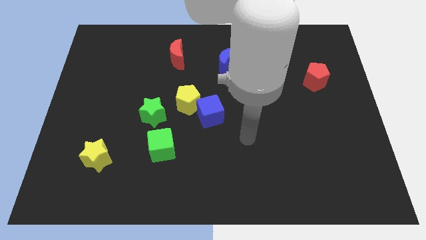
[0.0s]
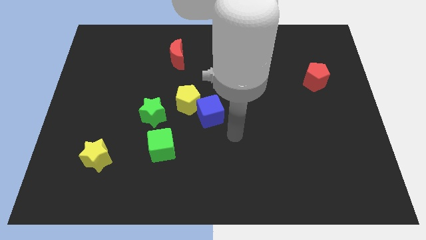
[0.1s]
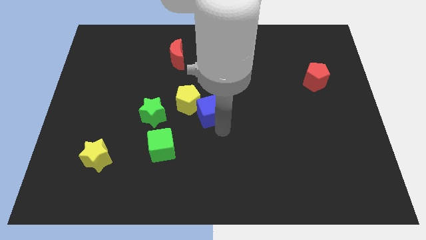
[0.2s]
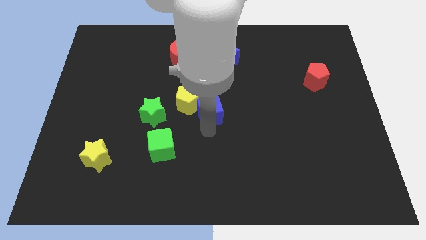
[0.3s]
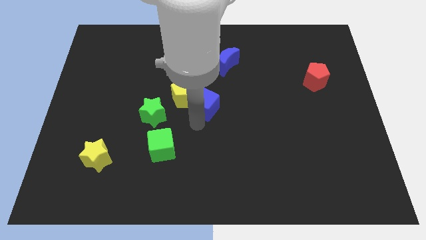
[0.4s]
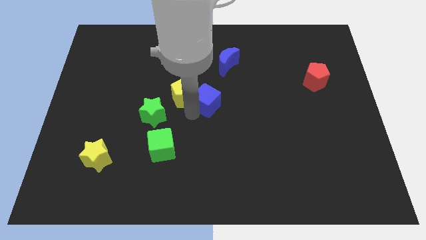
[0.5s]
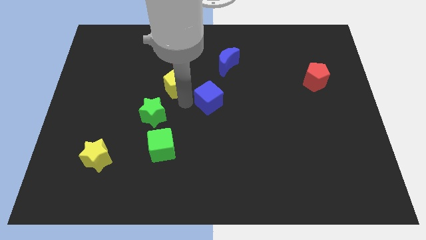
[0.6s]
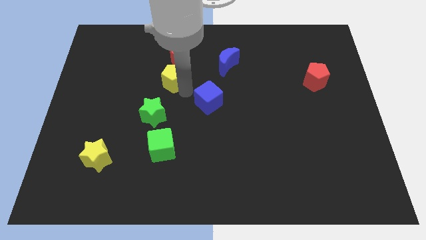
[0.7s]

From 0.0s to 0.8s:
pull the blue cube apart from the yellow pentagon

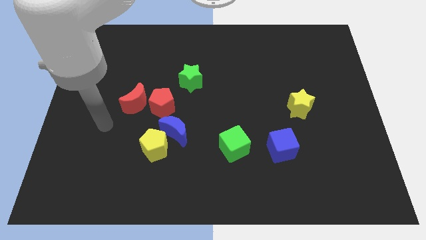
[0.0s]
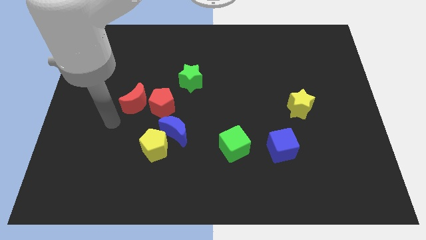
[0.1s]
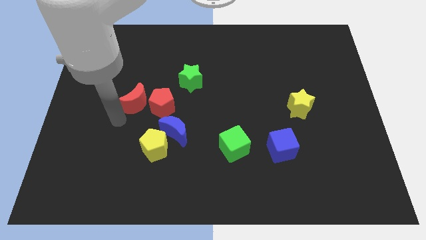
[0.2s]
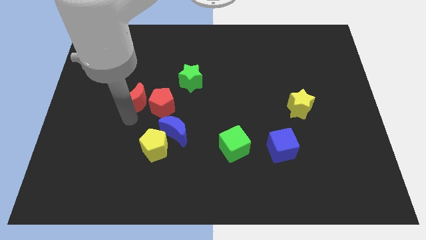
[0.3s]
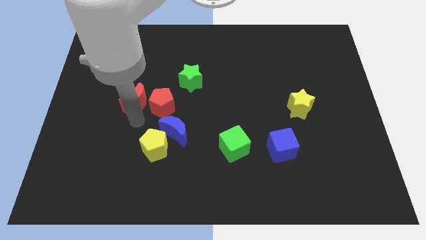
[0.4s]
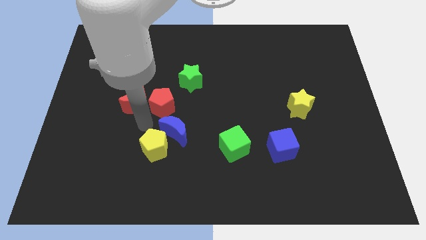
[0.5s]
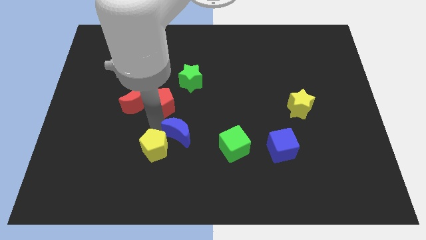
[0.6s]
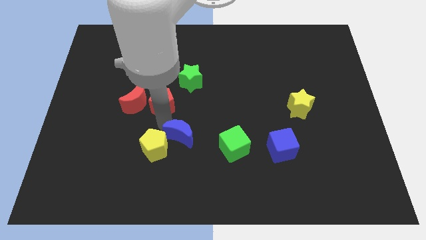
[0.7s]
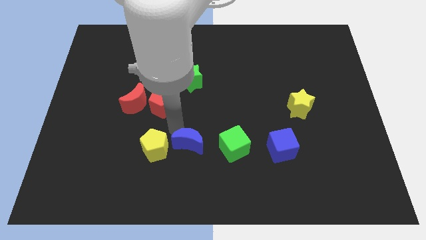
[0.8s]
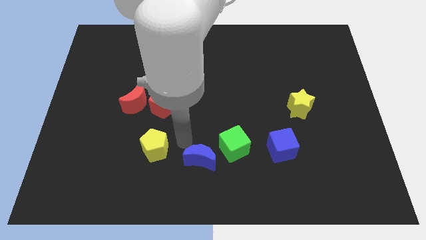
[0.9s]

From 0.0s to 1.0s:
separate the yellow pentagon from the blue moon

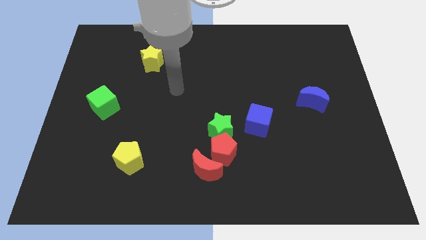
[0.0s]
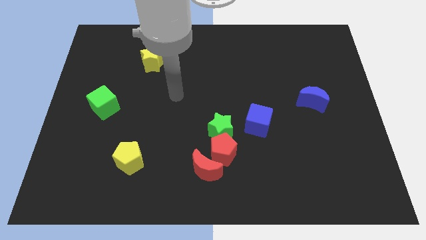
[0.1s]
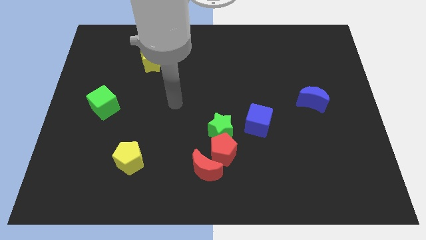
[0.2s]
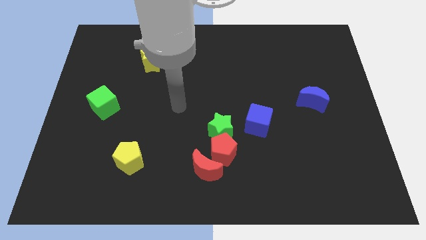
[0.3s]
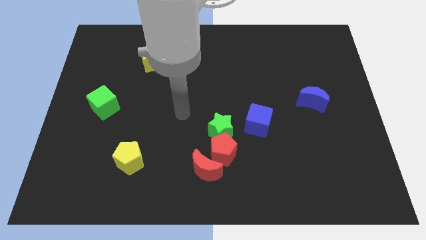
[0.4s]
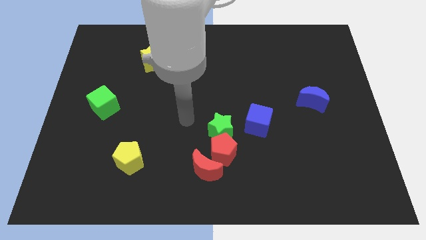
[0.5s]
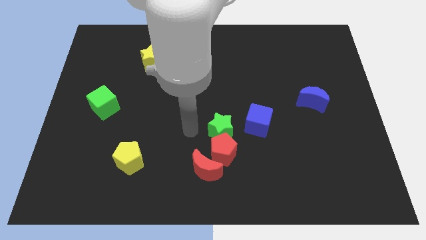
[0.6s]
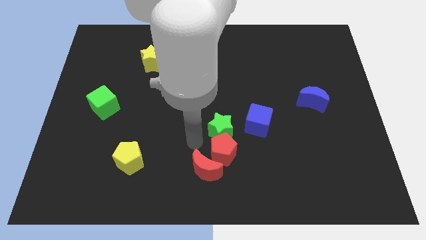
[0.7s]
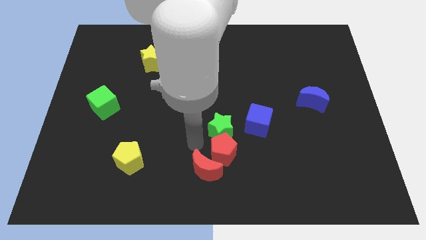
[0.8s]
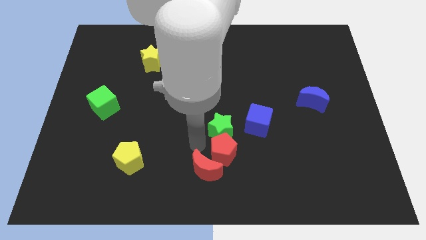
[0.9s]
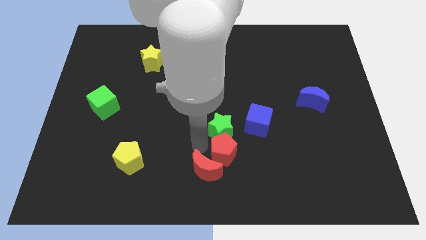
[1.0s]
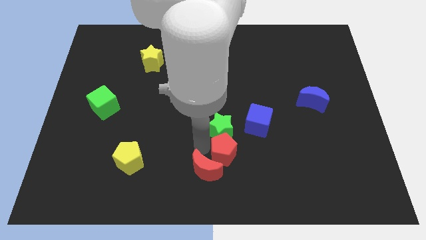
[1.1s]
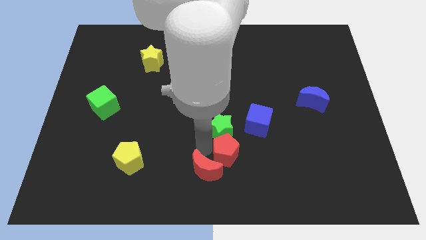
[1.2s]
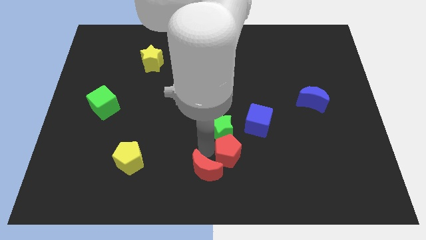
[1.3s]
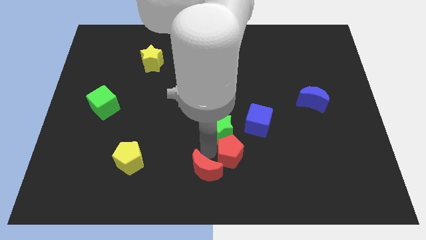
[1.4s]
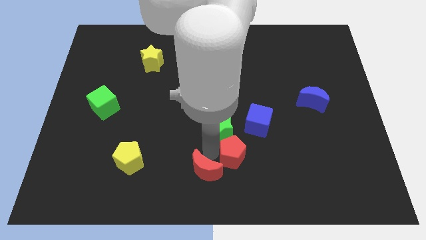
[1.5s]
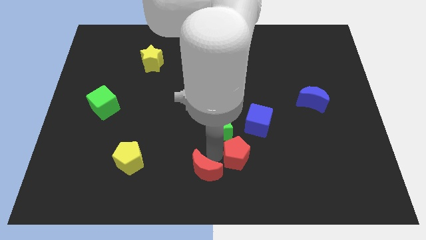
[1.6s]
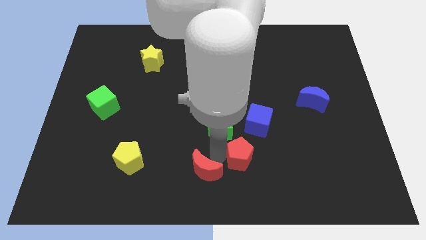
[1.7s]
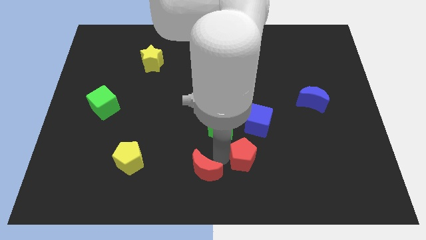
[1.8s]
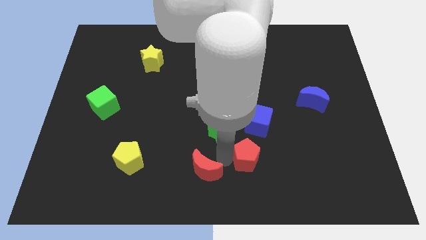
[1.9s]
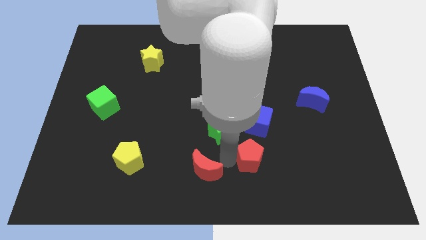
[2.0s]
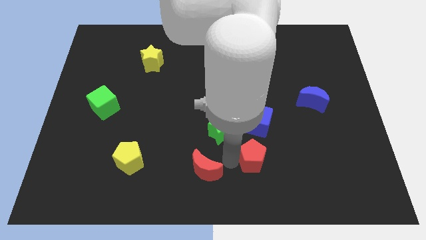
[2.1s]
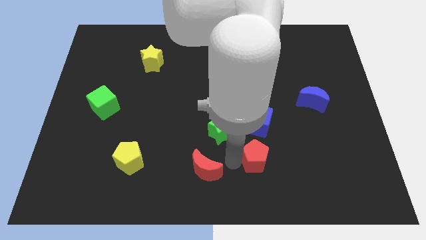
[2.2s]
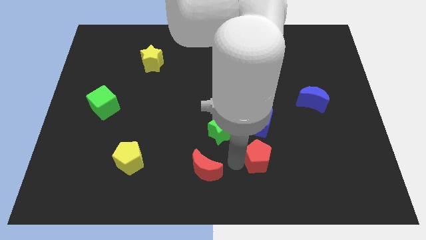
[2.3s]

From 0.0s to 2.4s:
pull the red pentagon apart from the green star and red moon

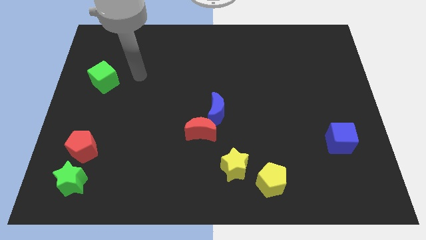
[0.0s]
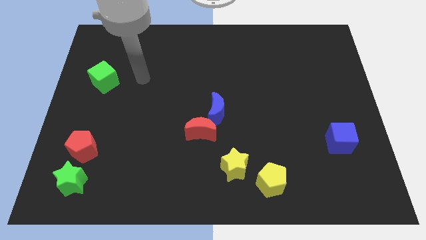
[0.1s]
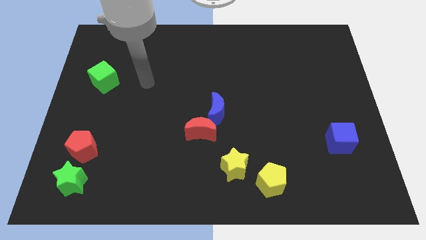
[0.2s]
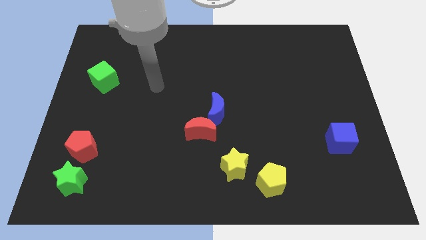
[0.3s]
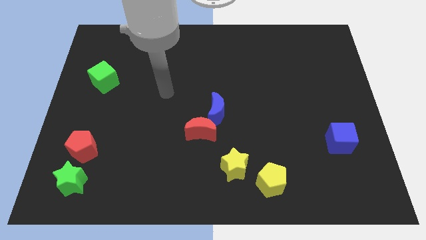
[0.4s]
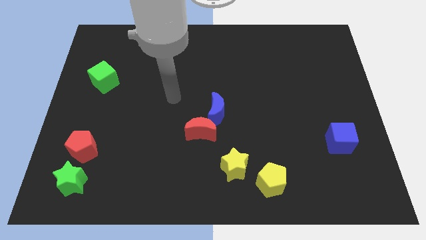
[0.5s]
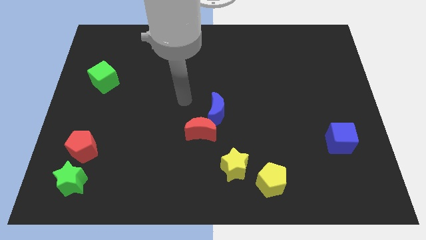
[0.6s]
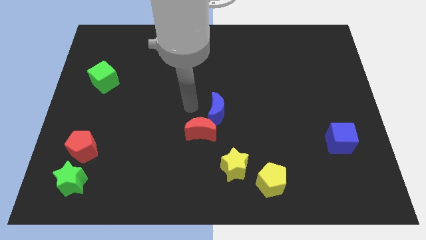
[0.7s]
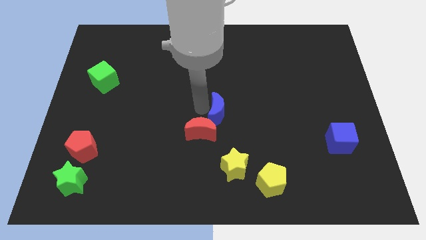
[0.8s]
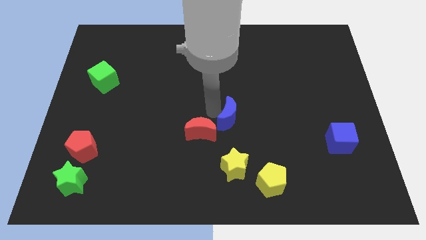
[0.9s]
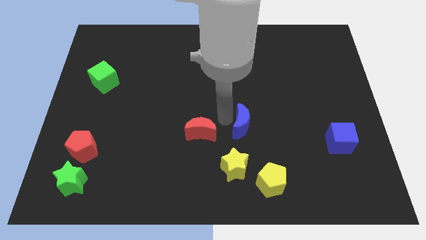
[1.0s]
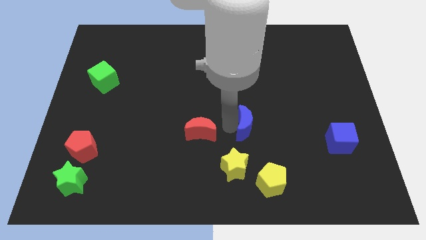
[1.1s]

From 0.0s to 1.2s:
separate the red moon from the blue moon

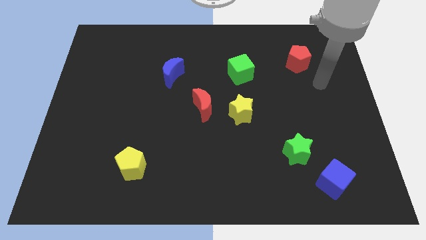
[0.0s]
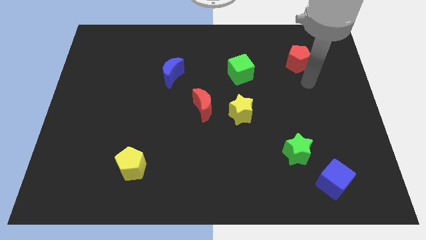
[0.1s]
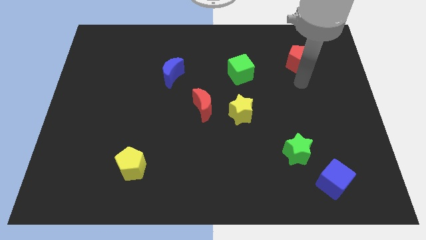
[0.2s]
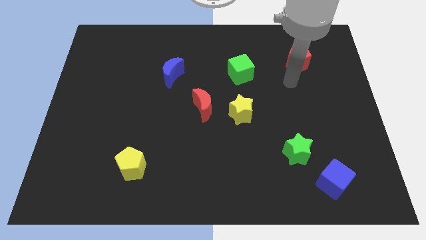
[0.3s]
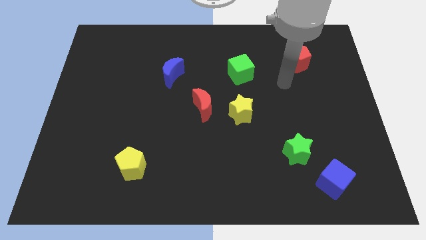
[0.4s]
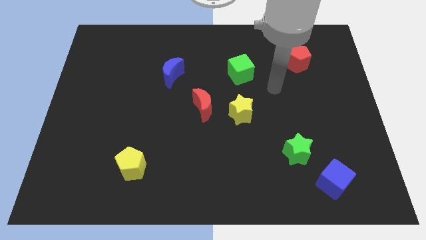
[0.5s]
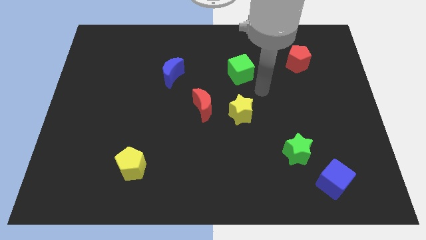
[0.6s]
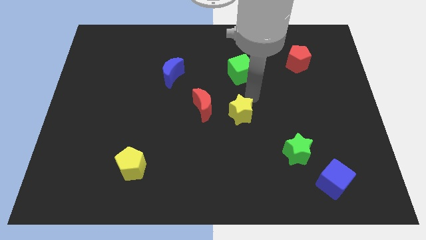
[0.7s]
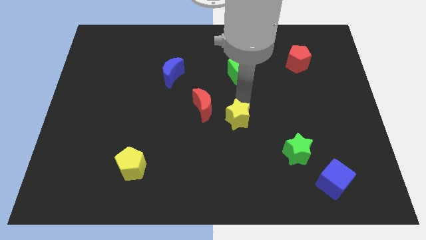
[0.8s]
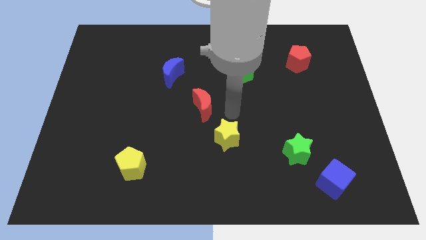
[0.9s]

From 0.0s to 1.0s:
separate the red moon from the yellow star

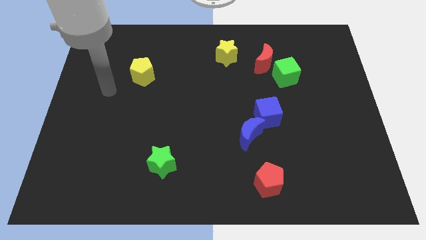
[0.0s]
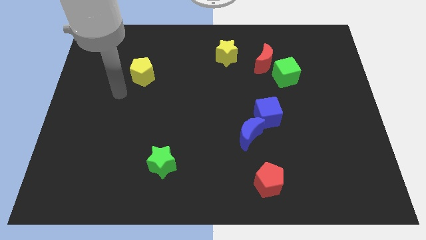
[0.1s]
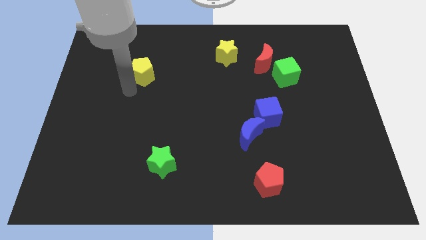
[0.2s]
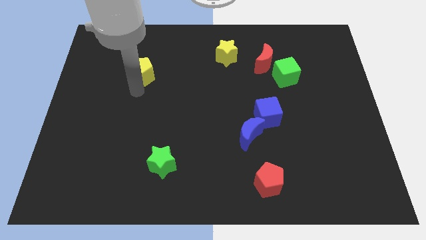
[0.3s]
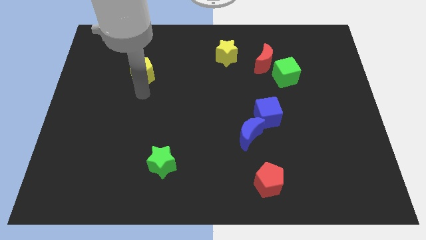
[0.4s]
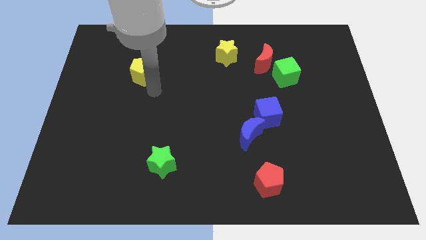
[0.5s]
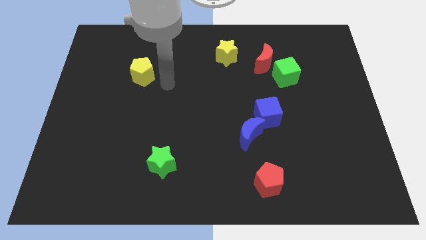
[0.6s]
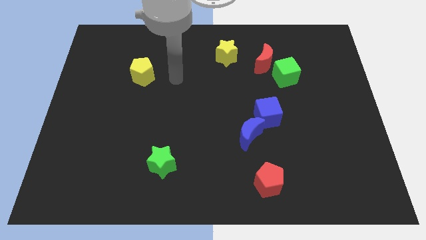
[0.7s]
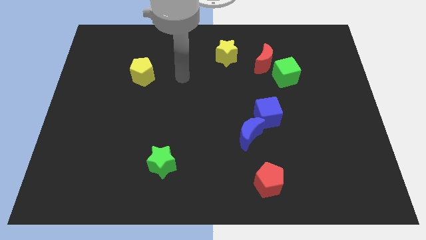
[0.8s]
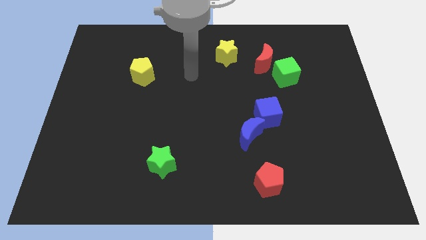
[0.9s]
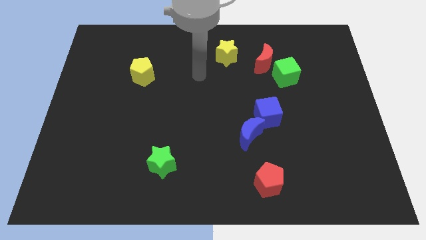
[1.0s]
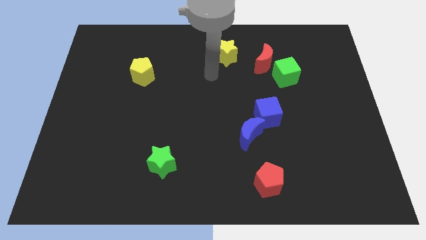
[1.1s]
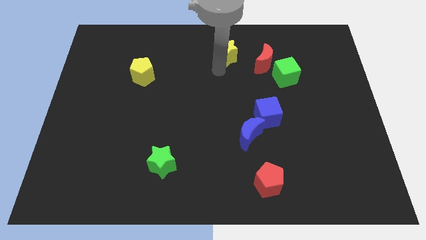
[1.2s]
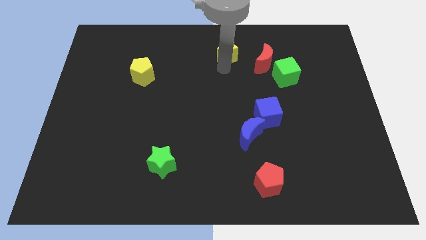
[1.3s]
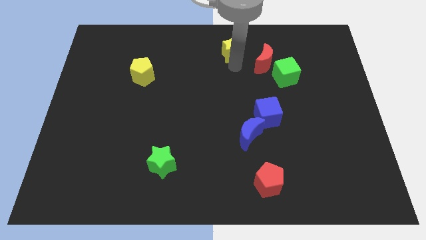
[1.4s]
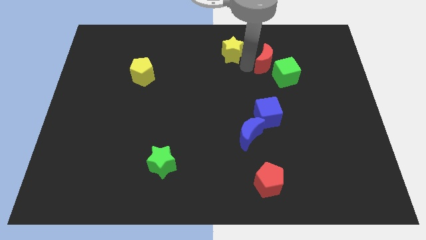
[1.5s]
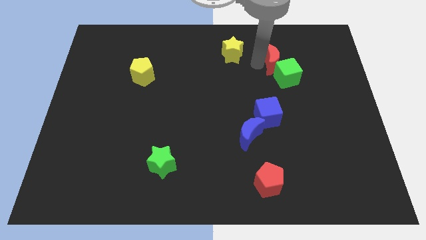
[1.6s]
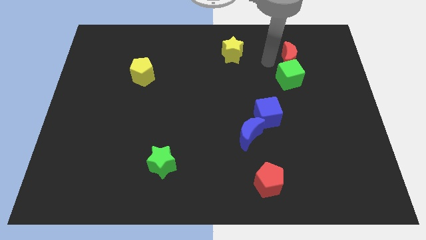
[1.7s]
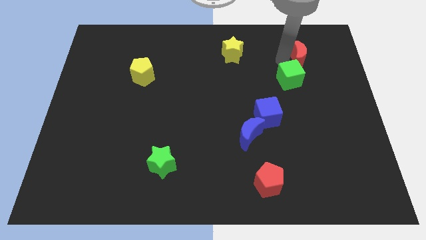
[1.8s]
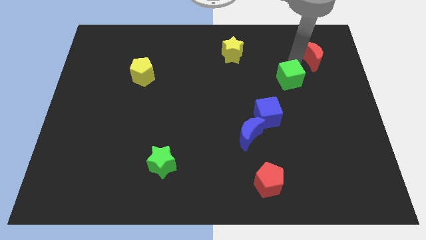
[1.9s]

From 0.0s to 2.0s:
move the green cube away from the red moon

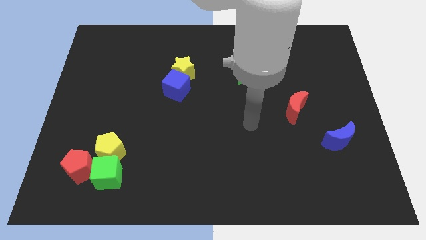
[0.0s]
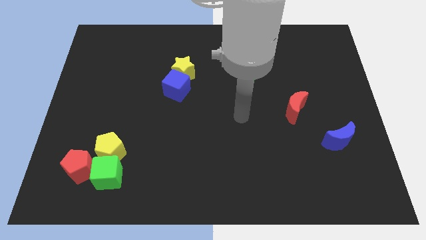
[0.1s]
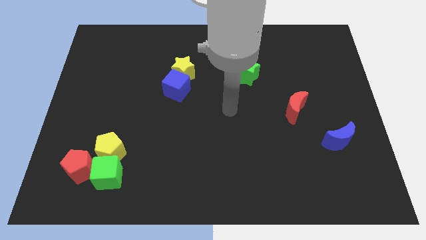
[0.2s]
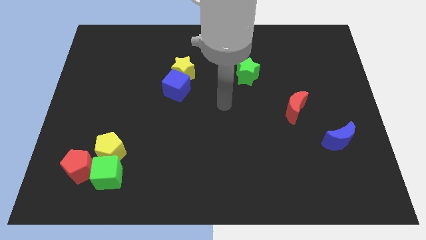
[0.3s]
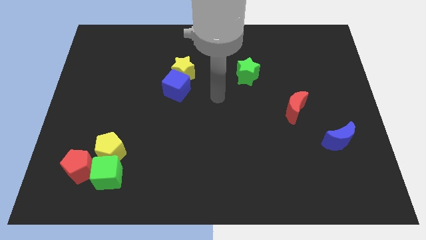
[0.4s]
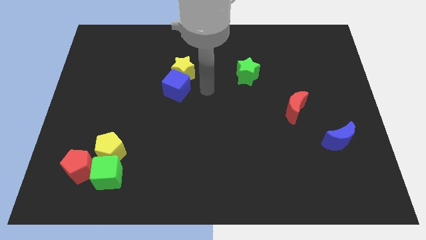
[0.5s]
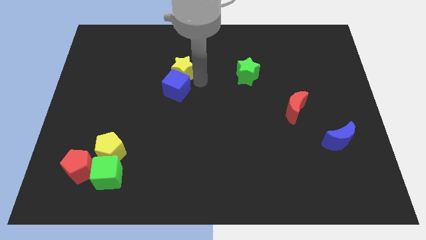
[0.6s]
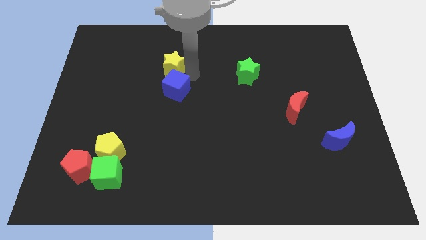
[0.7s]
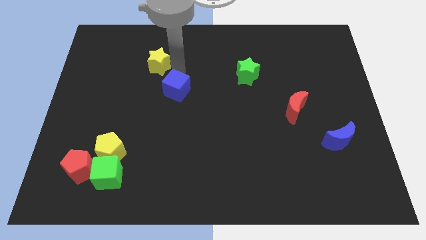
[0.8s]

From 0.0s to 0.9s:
separate the blue cube from the yellow star
